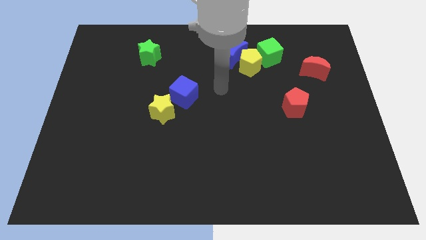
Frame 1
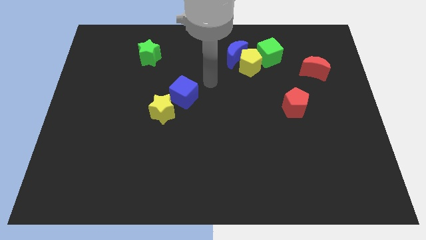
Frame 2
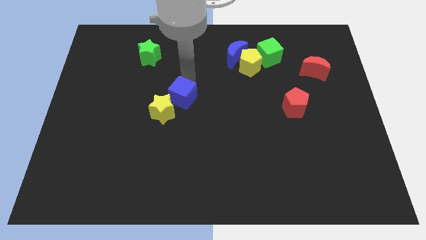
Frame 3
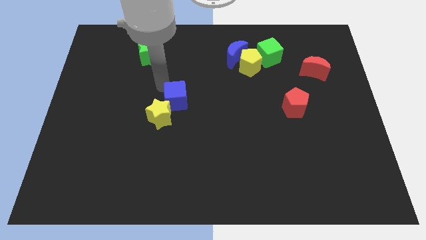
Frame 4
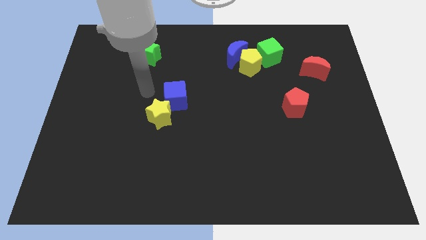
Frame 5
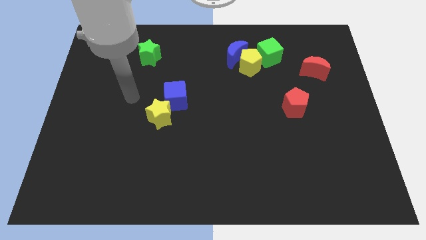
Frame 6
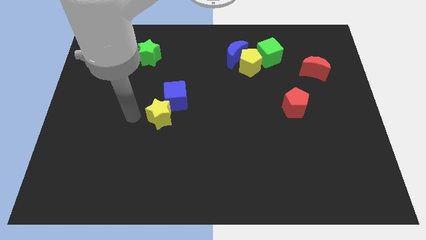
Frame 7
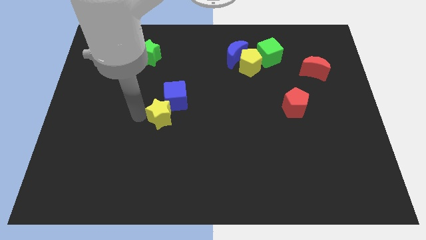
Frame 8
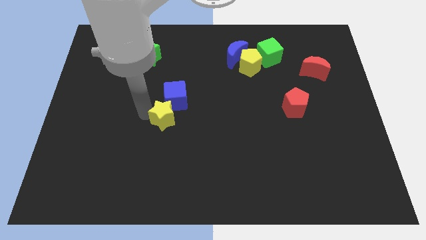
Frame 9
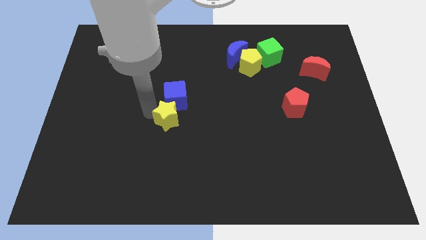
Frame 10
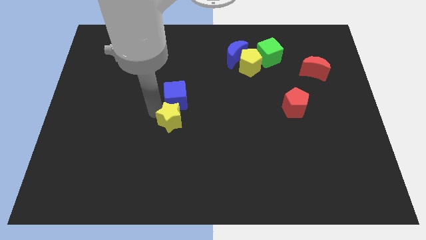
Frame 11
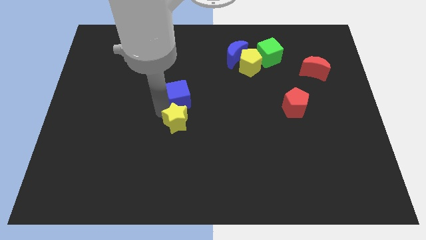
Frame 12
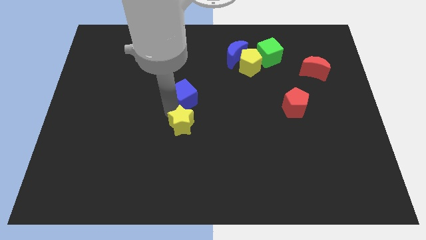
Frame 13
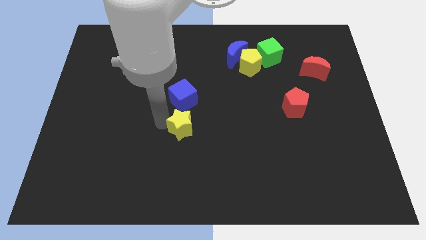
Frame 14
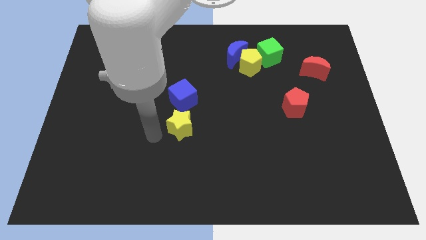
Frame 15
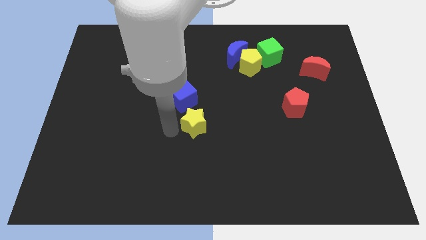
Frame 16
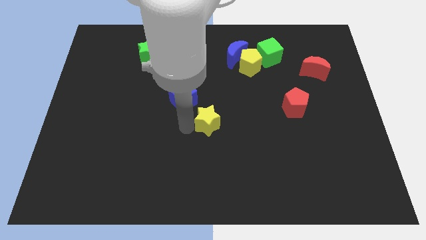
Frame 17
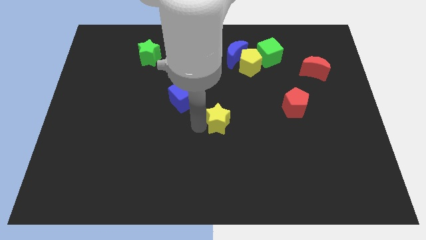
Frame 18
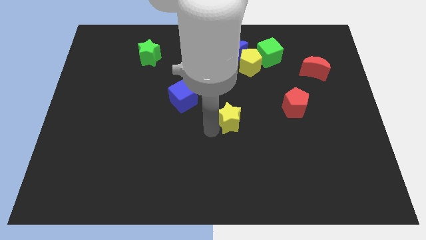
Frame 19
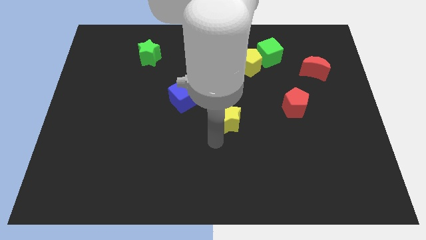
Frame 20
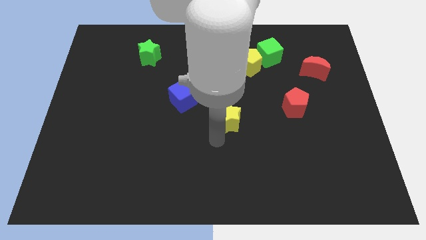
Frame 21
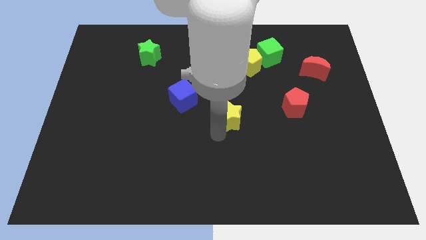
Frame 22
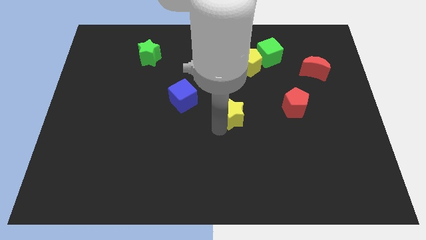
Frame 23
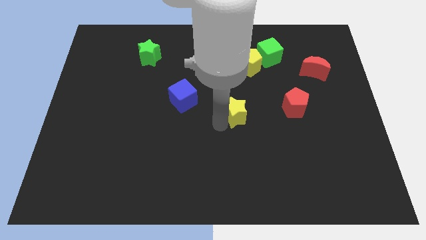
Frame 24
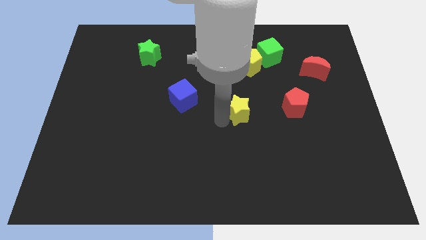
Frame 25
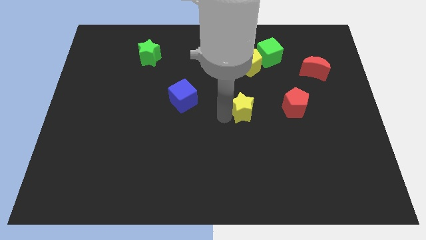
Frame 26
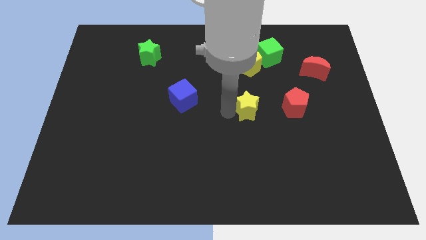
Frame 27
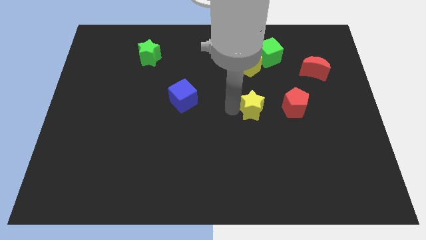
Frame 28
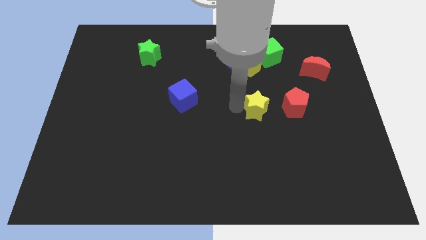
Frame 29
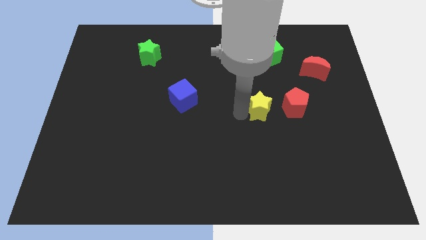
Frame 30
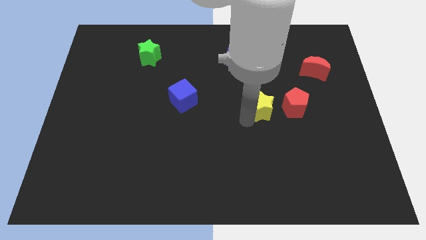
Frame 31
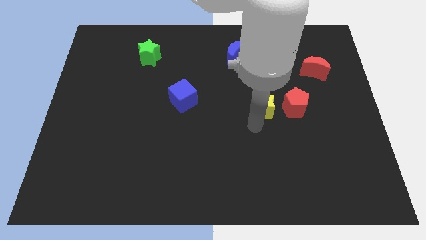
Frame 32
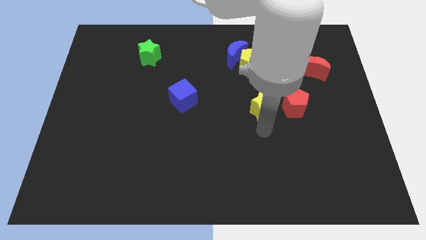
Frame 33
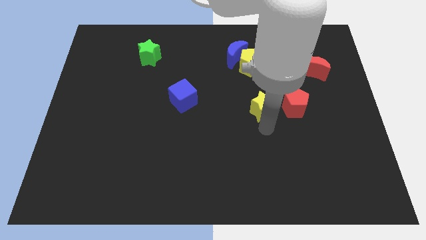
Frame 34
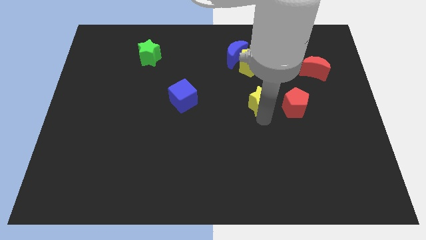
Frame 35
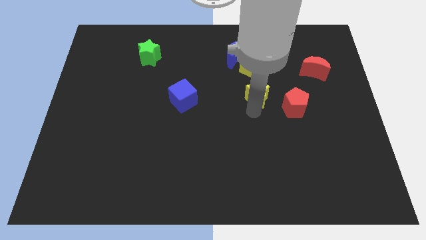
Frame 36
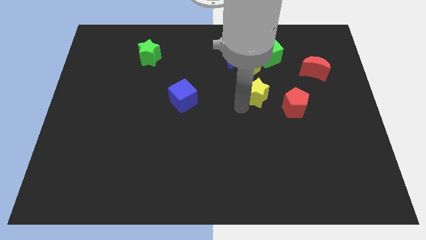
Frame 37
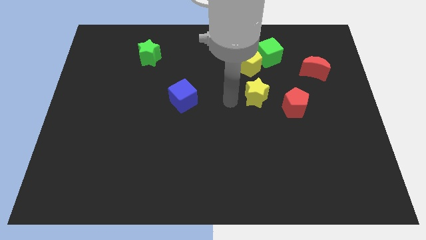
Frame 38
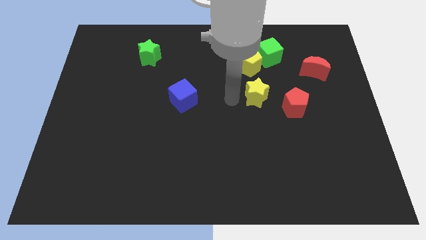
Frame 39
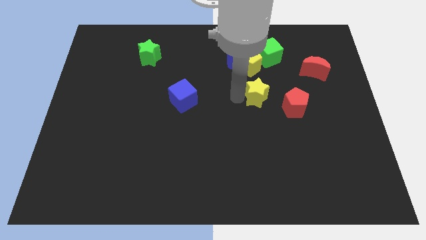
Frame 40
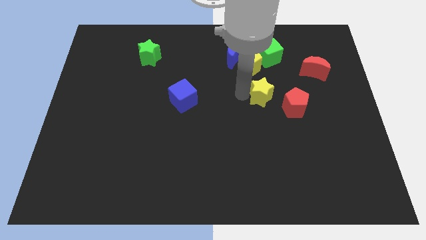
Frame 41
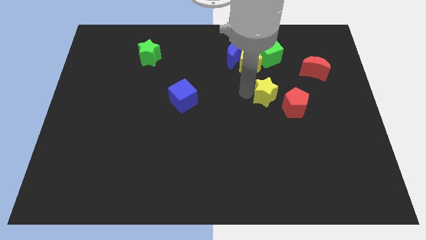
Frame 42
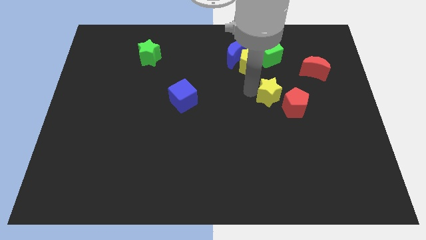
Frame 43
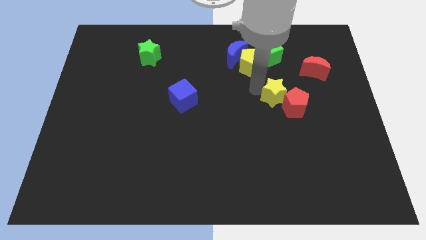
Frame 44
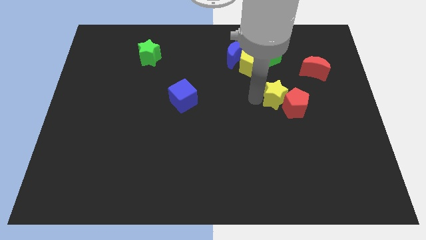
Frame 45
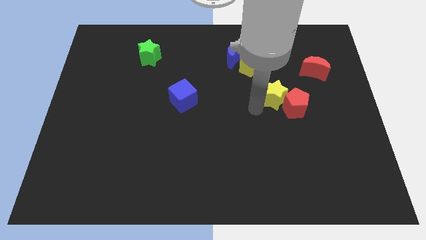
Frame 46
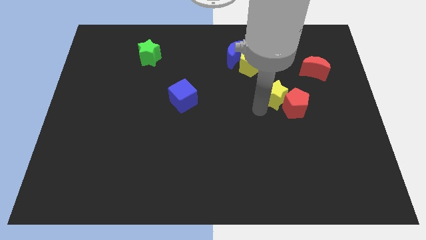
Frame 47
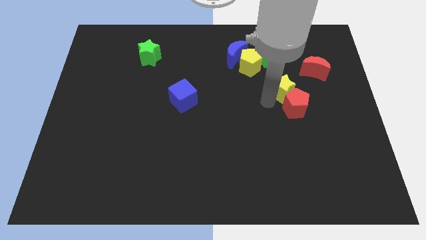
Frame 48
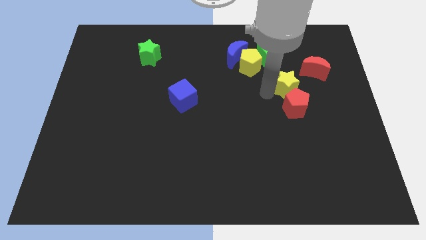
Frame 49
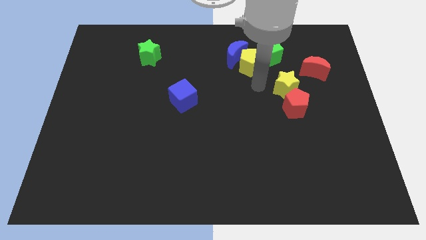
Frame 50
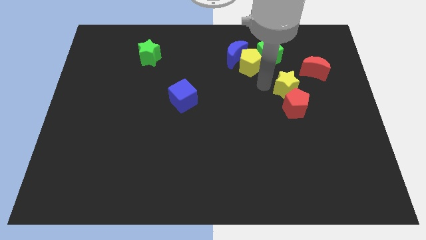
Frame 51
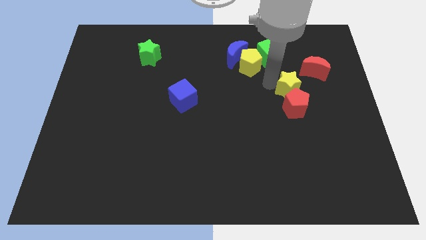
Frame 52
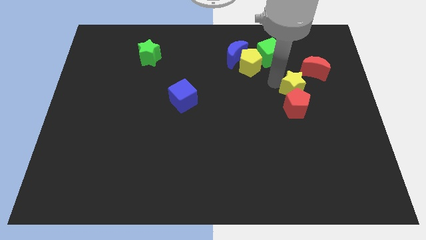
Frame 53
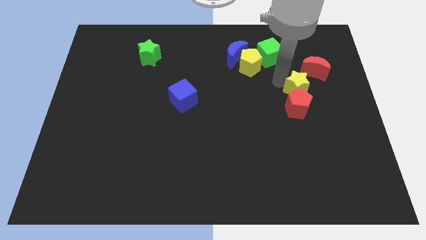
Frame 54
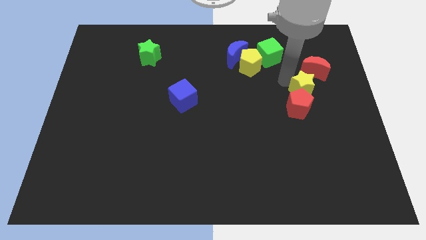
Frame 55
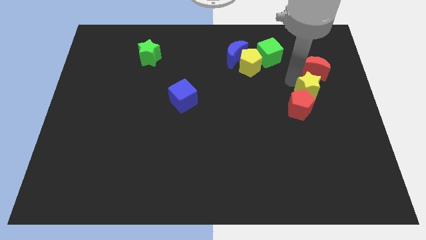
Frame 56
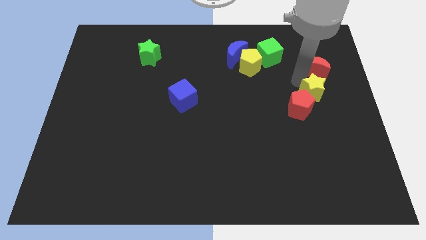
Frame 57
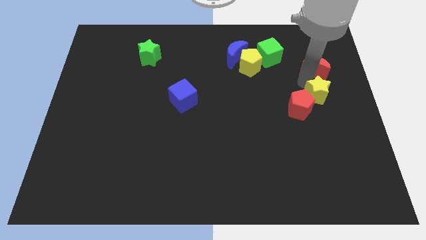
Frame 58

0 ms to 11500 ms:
move the yellow star to the right side of the board

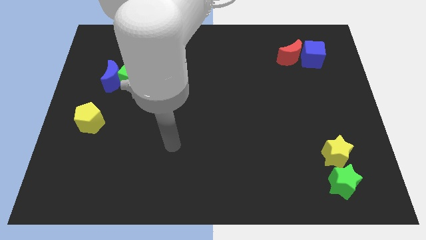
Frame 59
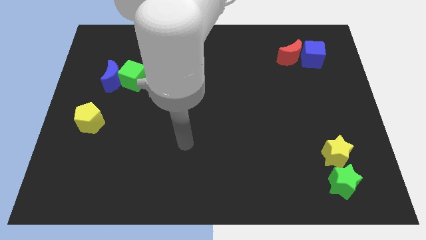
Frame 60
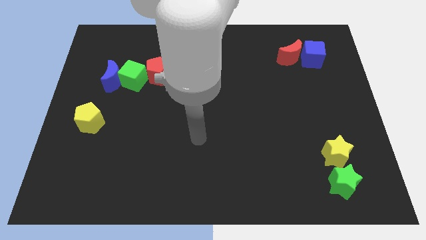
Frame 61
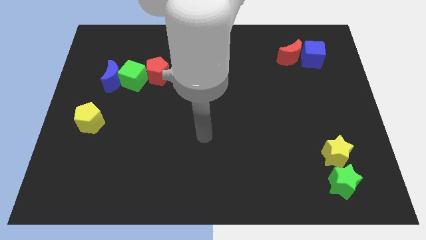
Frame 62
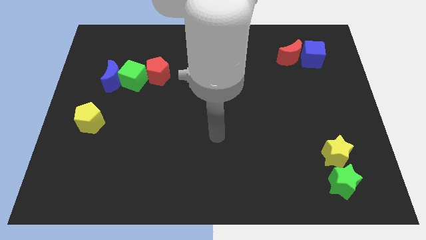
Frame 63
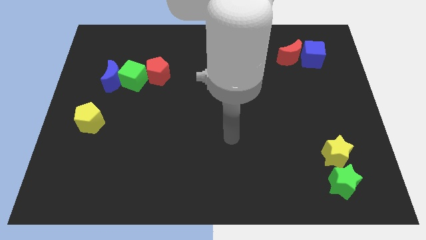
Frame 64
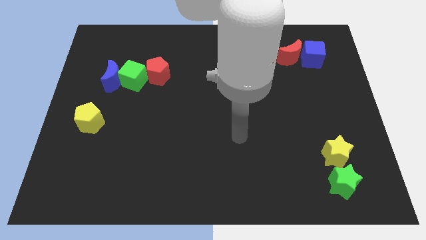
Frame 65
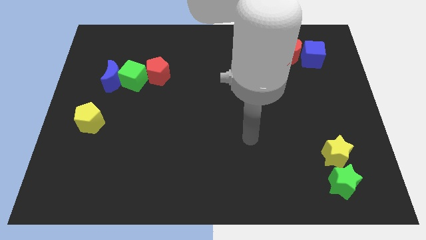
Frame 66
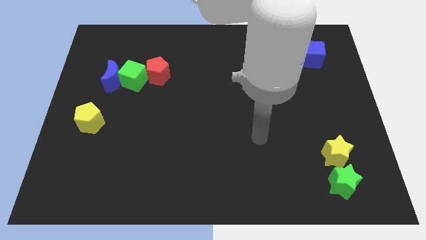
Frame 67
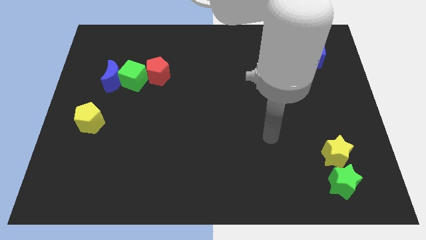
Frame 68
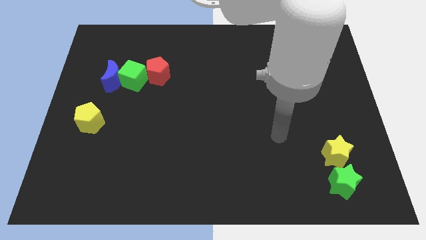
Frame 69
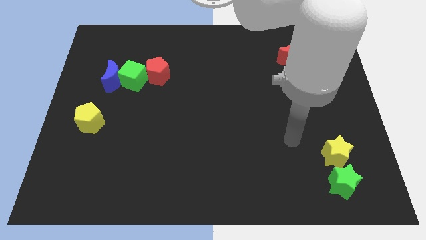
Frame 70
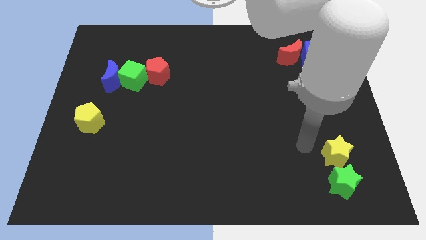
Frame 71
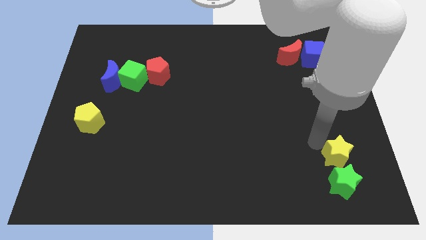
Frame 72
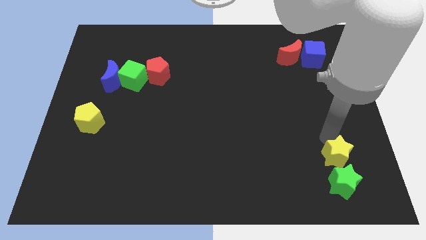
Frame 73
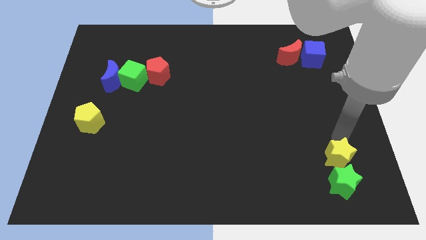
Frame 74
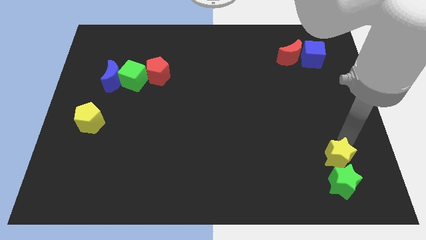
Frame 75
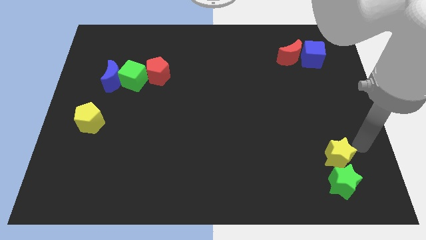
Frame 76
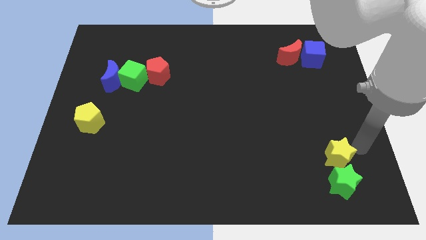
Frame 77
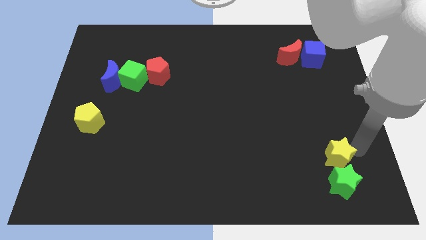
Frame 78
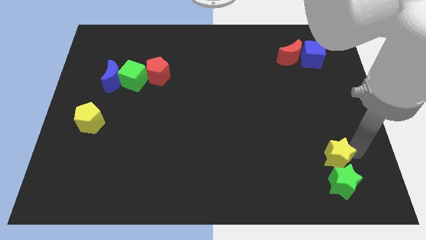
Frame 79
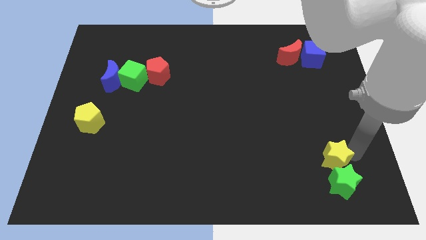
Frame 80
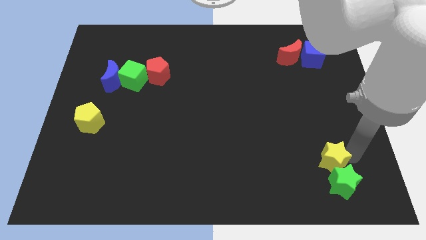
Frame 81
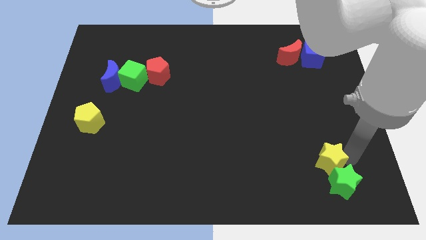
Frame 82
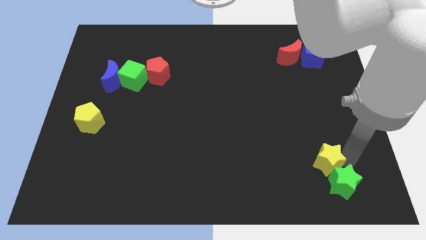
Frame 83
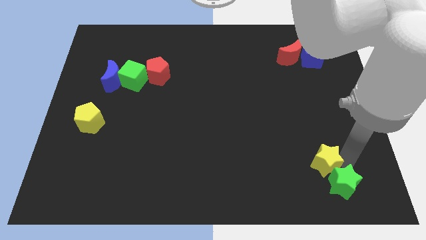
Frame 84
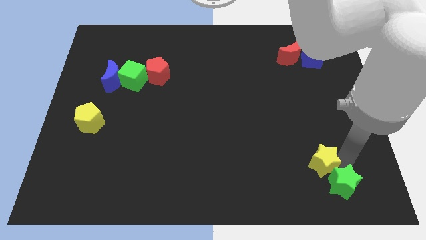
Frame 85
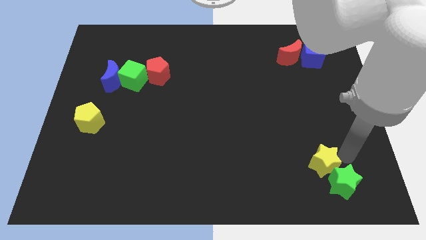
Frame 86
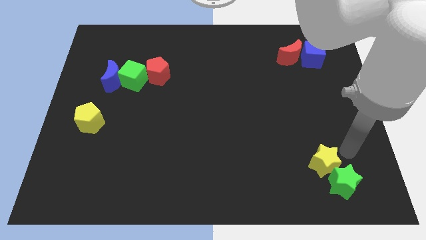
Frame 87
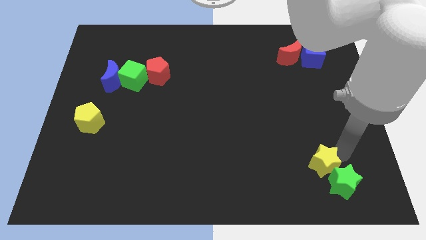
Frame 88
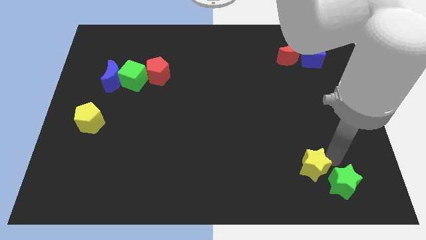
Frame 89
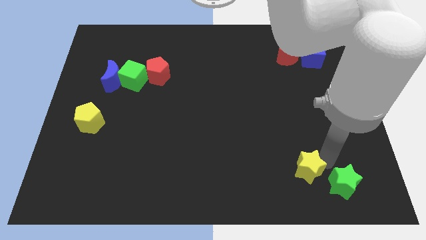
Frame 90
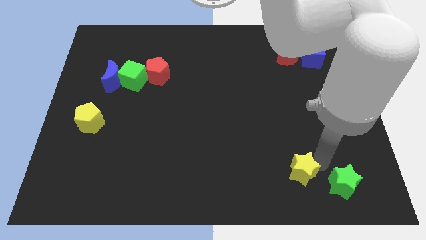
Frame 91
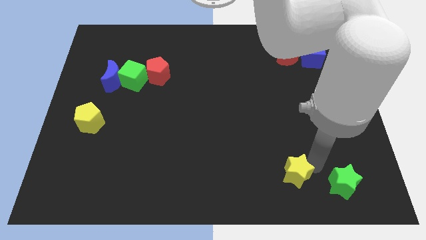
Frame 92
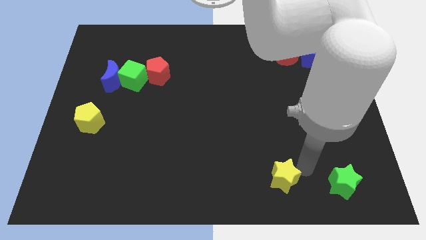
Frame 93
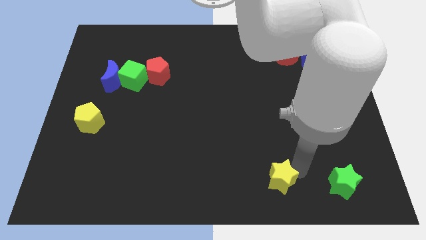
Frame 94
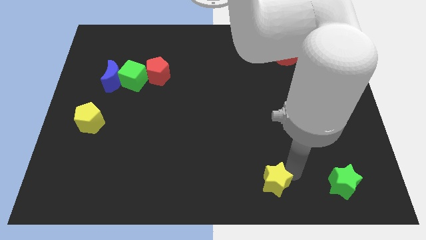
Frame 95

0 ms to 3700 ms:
push the yellow star to the bottom side
